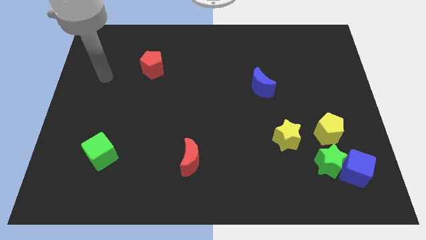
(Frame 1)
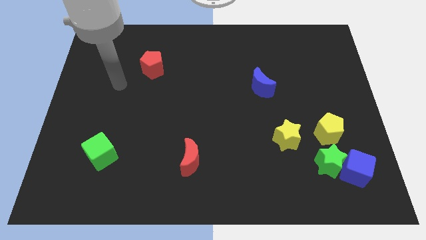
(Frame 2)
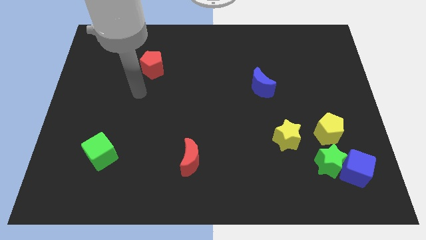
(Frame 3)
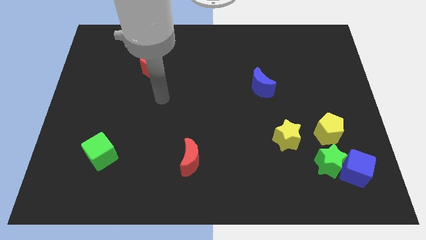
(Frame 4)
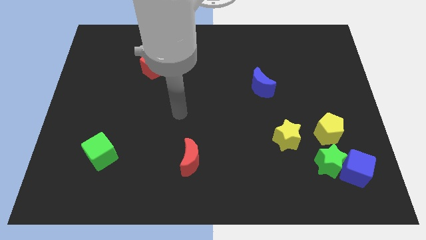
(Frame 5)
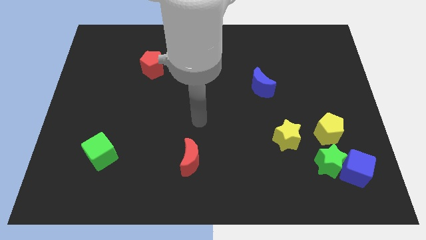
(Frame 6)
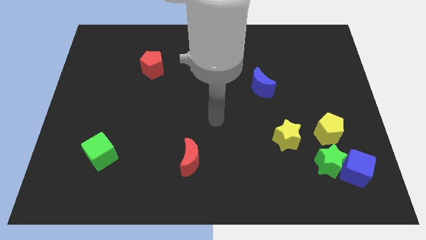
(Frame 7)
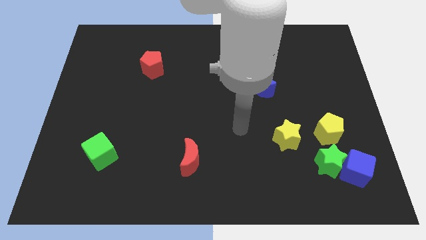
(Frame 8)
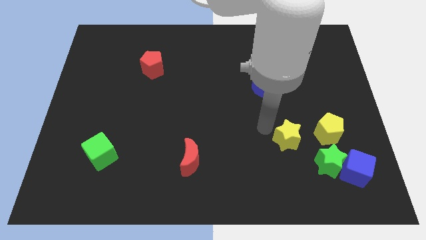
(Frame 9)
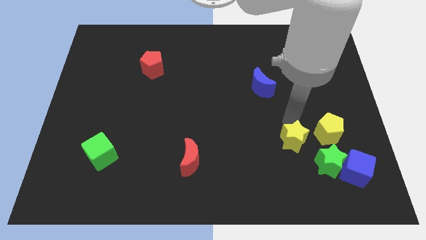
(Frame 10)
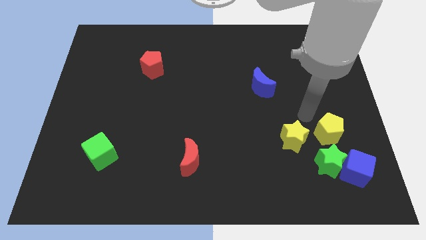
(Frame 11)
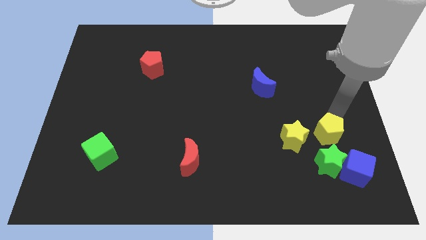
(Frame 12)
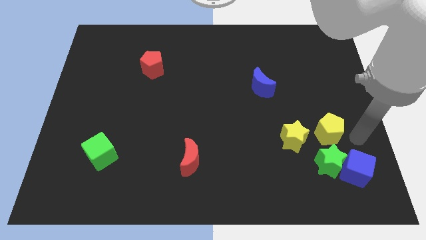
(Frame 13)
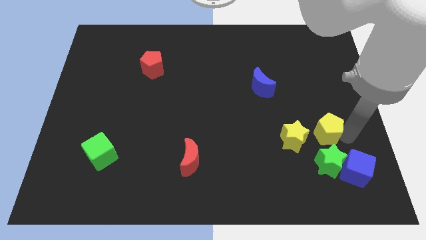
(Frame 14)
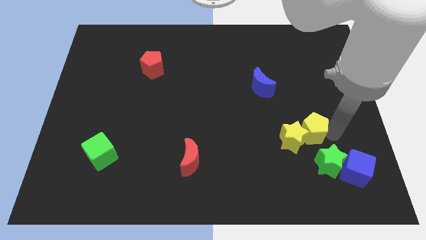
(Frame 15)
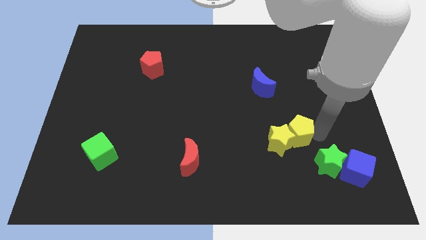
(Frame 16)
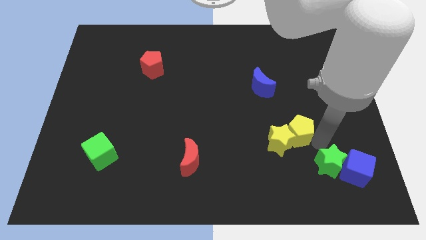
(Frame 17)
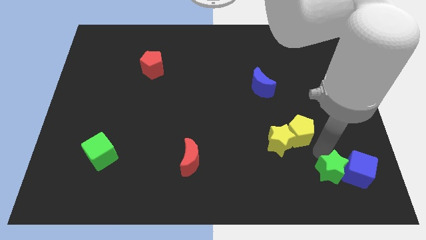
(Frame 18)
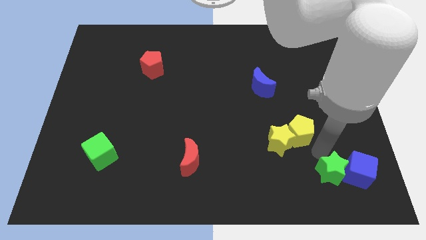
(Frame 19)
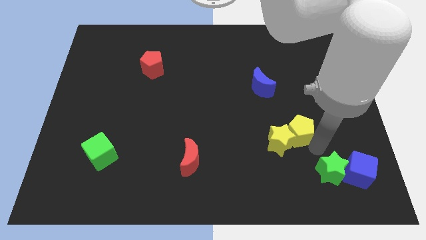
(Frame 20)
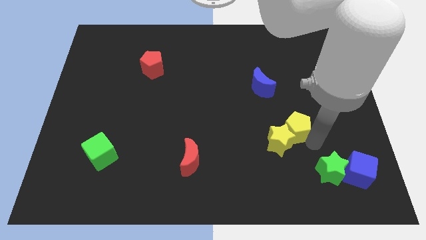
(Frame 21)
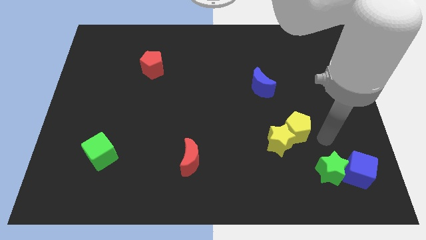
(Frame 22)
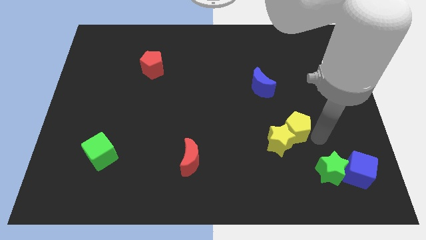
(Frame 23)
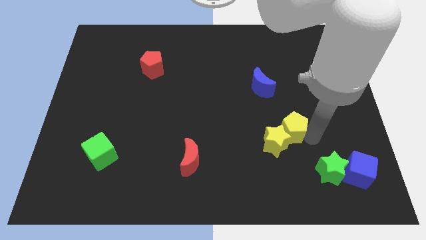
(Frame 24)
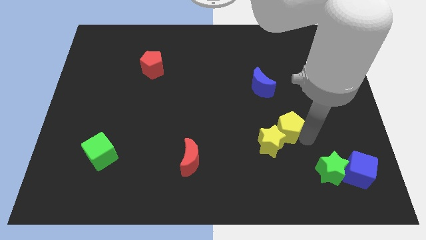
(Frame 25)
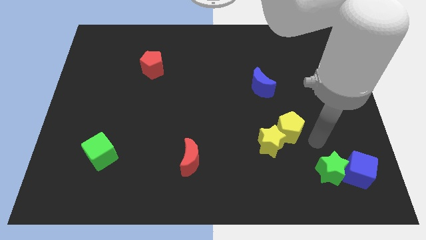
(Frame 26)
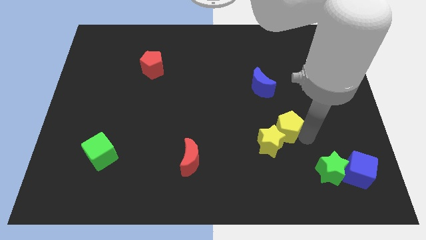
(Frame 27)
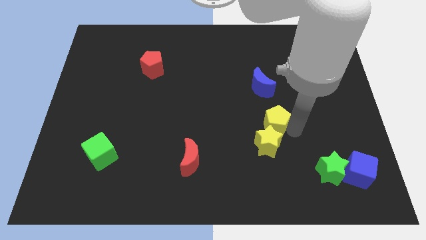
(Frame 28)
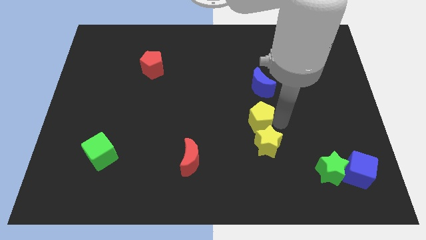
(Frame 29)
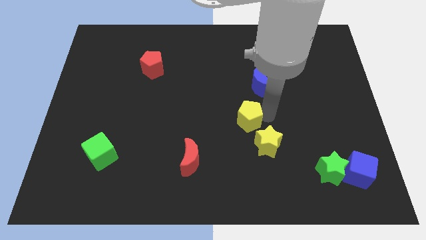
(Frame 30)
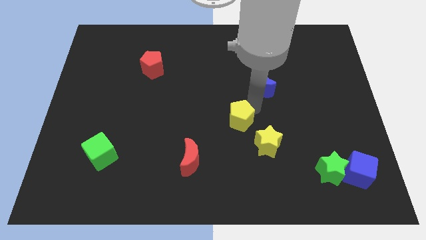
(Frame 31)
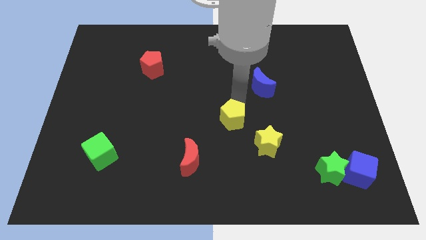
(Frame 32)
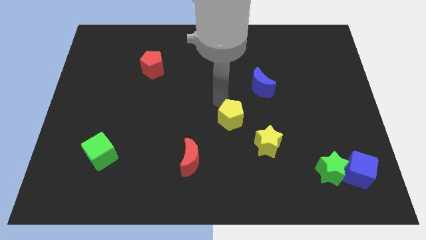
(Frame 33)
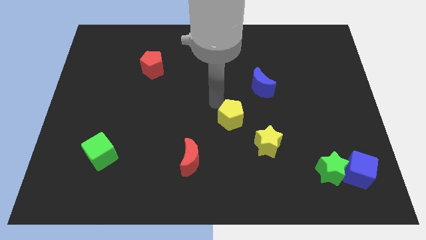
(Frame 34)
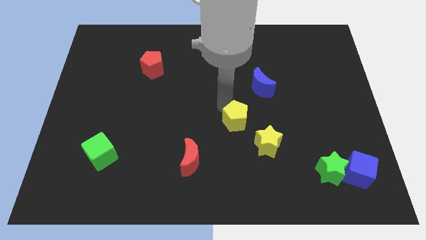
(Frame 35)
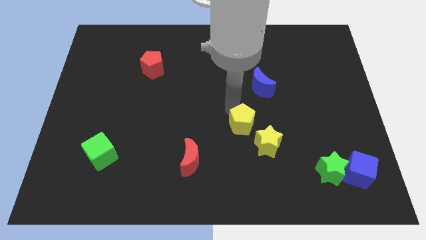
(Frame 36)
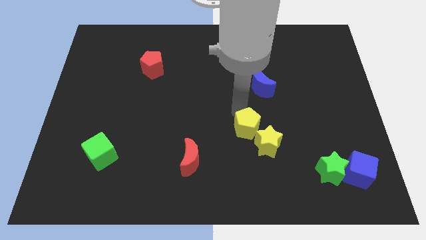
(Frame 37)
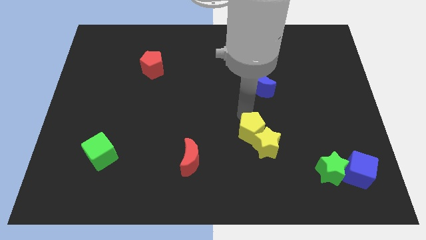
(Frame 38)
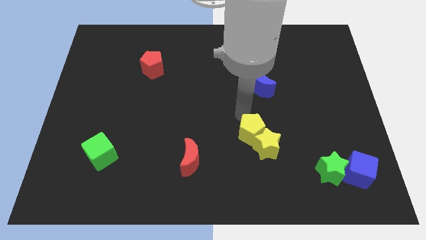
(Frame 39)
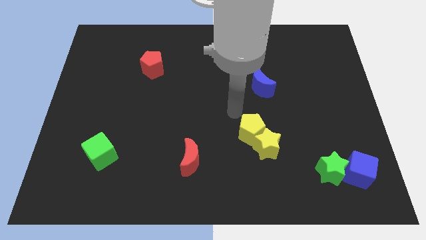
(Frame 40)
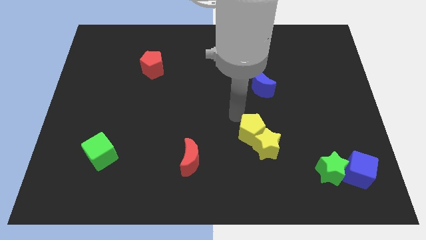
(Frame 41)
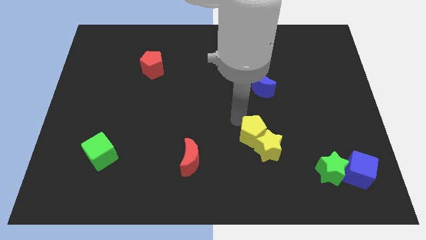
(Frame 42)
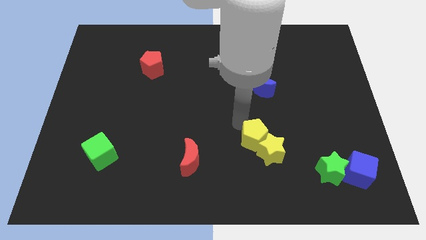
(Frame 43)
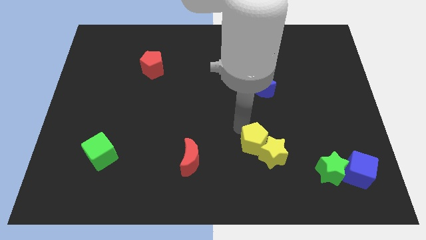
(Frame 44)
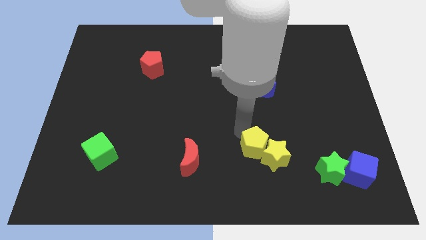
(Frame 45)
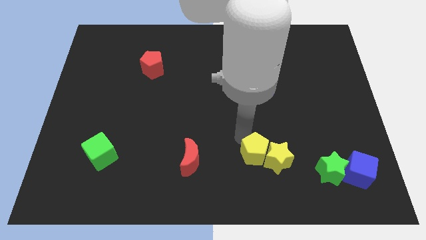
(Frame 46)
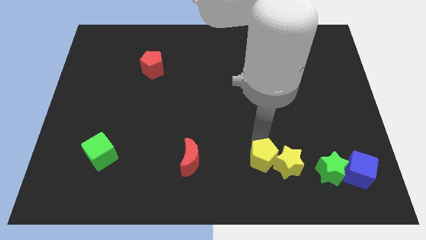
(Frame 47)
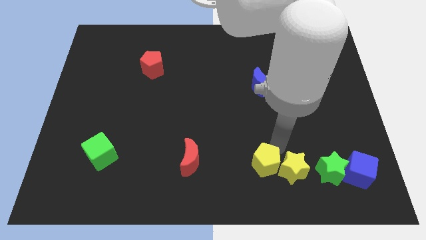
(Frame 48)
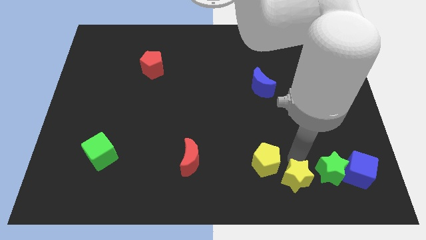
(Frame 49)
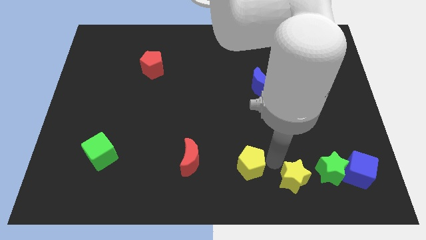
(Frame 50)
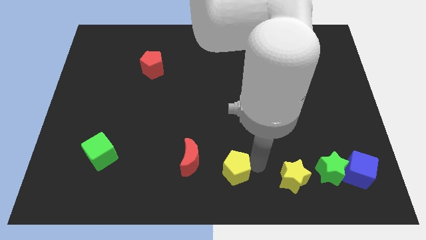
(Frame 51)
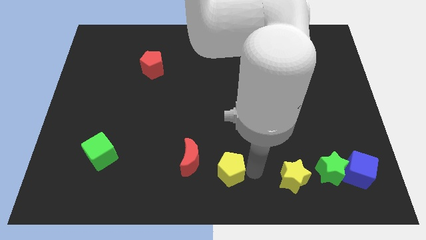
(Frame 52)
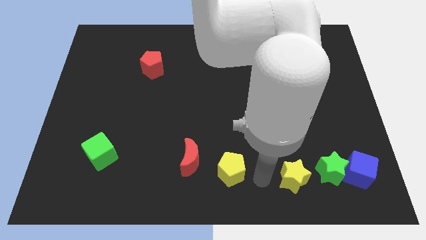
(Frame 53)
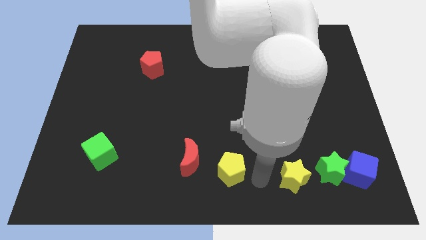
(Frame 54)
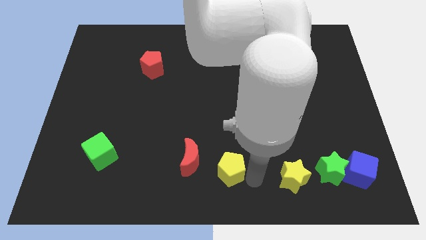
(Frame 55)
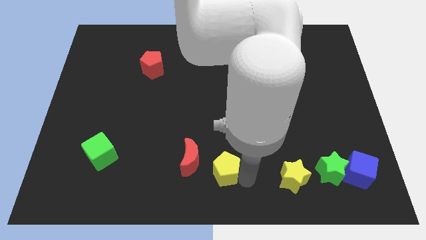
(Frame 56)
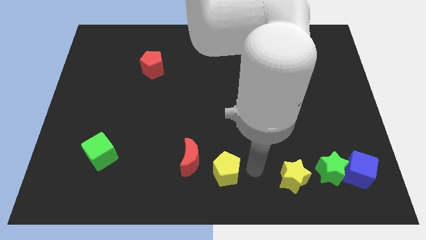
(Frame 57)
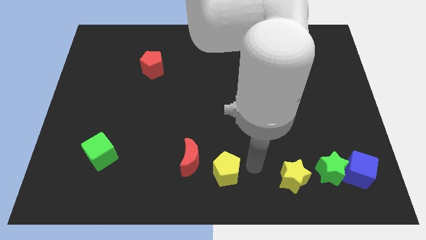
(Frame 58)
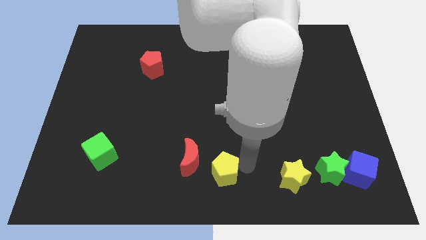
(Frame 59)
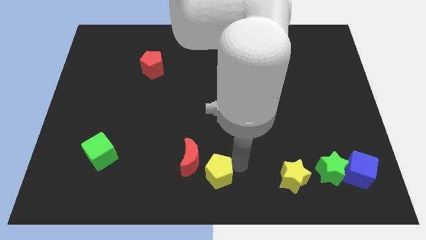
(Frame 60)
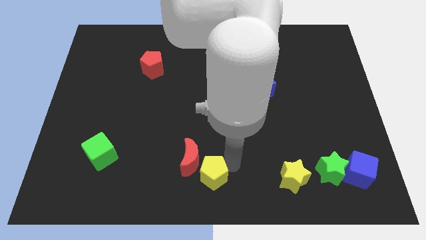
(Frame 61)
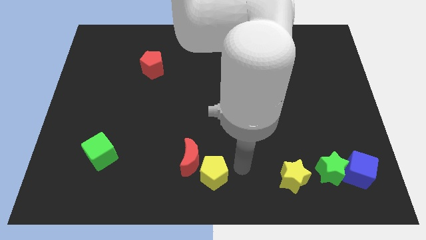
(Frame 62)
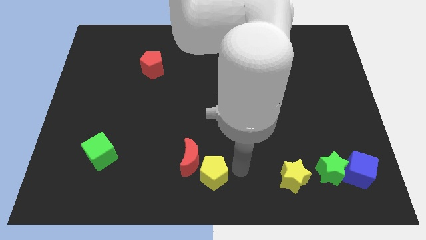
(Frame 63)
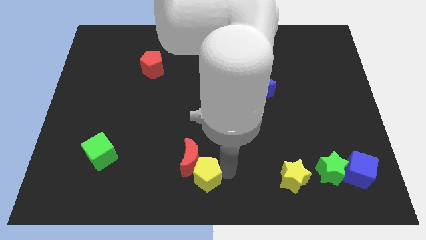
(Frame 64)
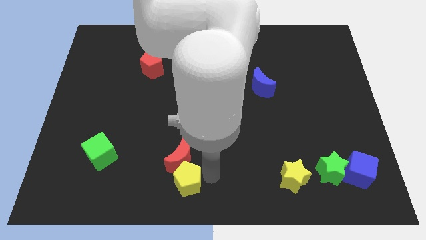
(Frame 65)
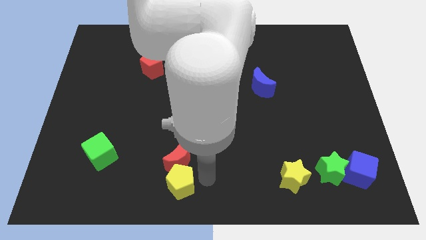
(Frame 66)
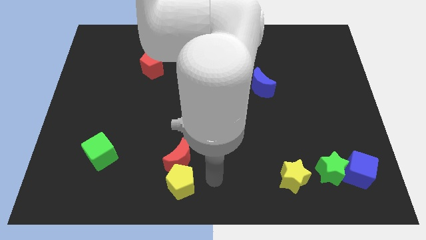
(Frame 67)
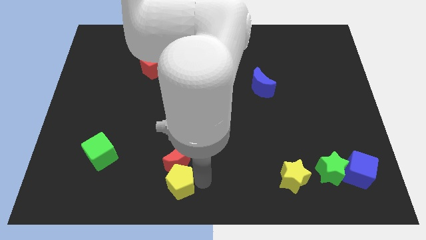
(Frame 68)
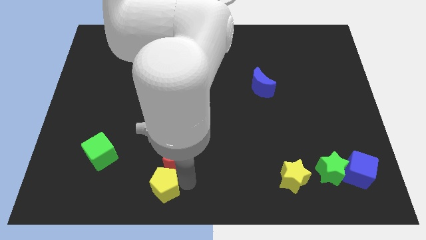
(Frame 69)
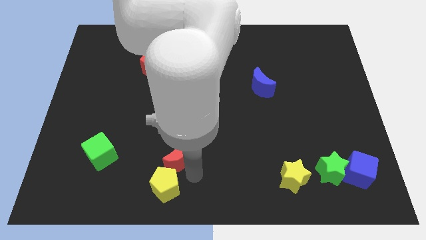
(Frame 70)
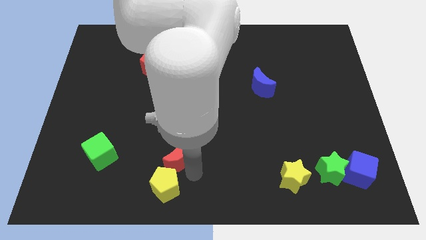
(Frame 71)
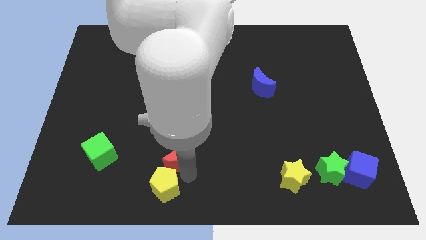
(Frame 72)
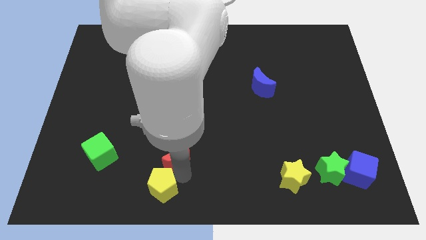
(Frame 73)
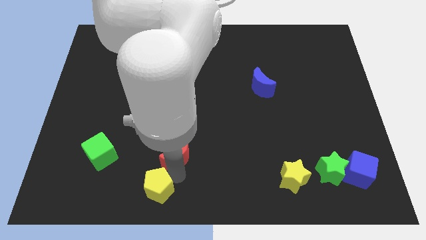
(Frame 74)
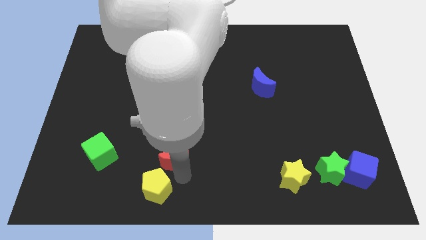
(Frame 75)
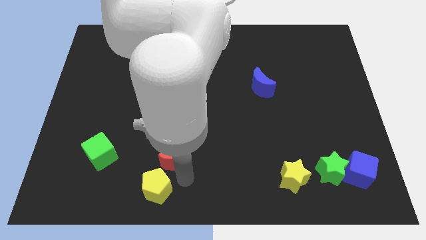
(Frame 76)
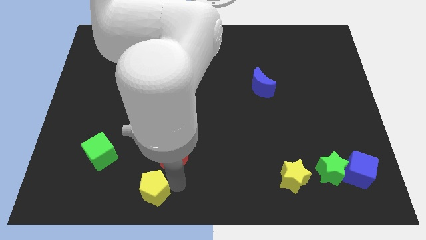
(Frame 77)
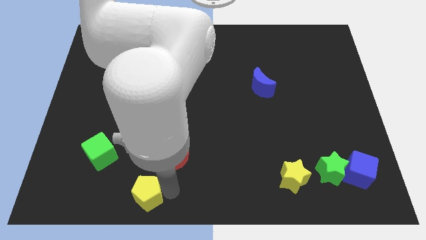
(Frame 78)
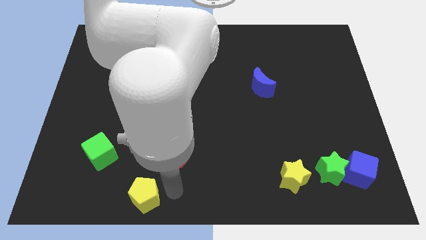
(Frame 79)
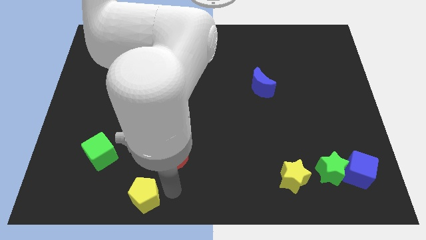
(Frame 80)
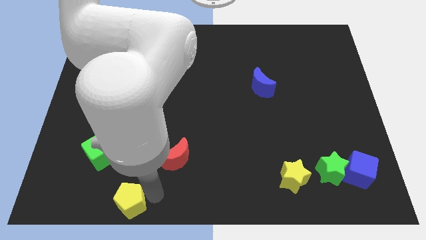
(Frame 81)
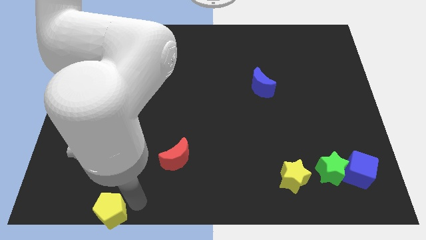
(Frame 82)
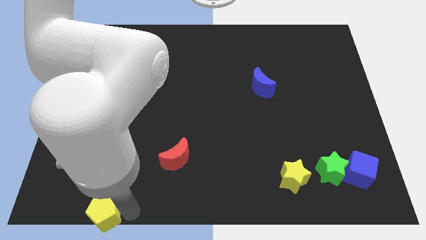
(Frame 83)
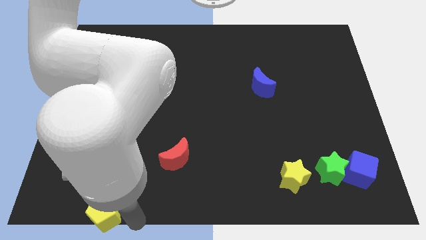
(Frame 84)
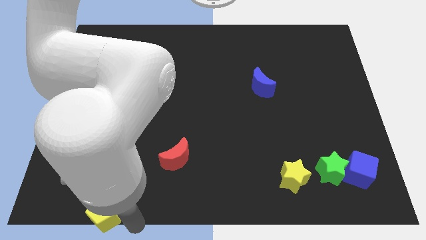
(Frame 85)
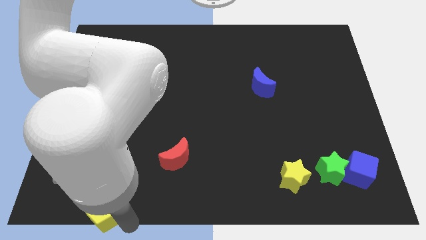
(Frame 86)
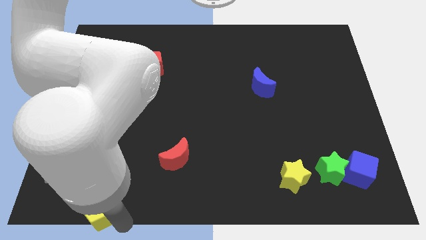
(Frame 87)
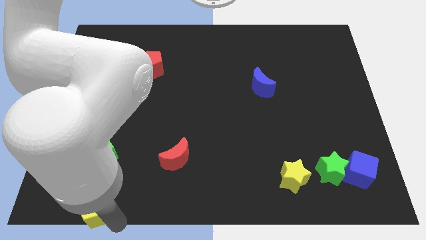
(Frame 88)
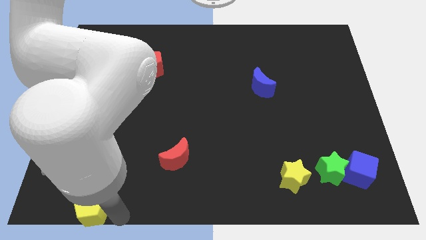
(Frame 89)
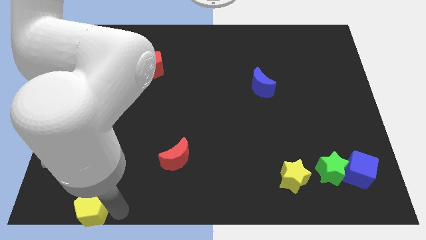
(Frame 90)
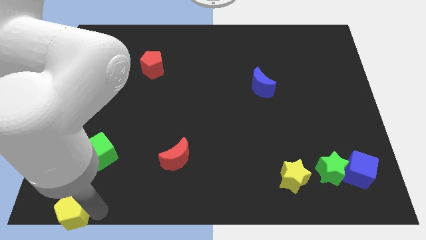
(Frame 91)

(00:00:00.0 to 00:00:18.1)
push the yellow pentagon to the bottom left corner
